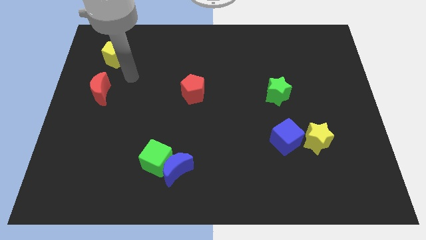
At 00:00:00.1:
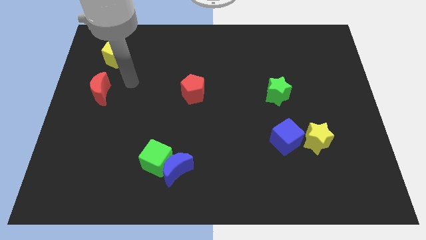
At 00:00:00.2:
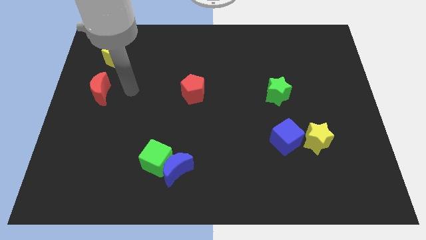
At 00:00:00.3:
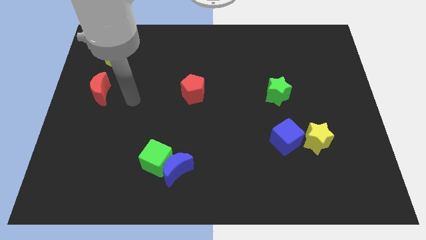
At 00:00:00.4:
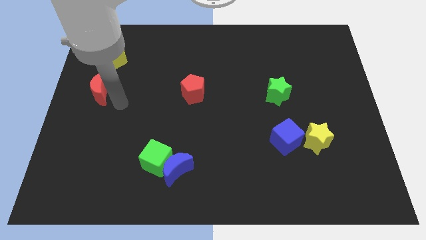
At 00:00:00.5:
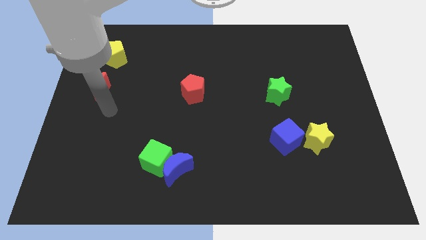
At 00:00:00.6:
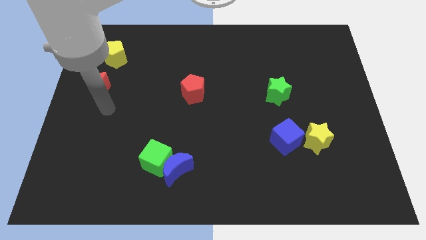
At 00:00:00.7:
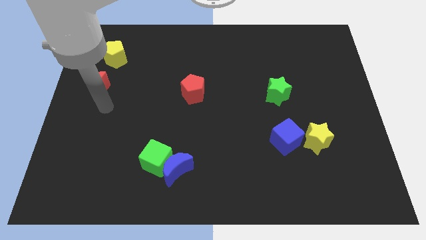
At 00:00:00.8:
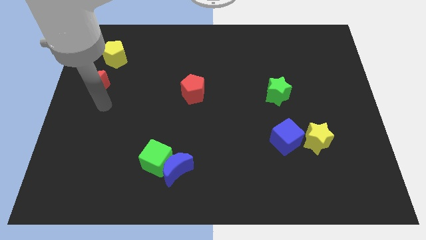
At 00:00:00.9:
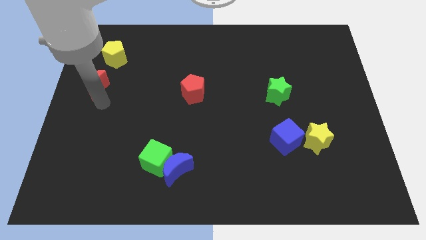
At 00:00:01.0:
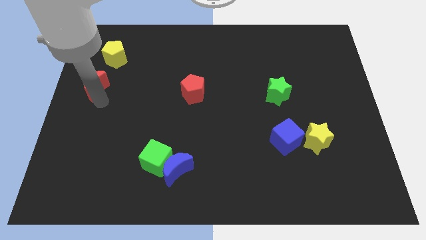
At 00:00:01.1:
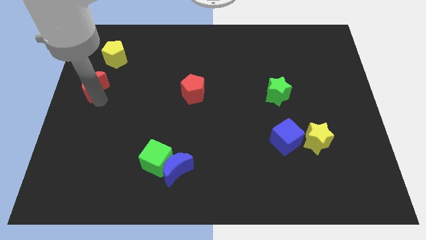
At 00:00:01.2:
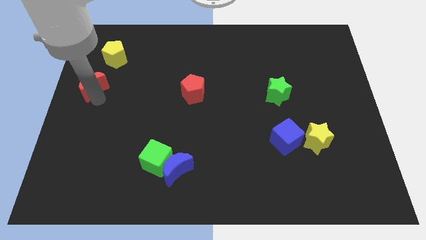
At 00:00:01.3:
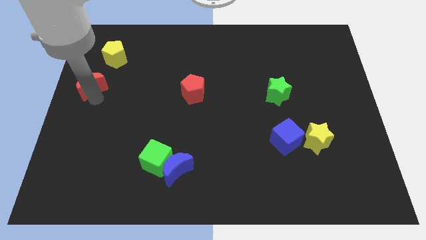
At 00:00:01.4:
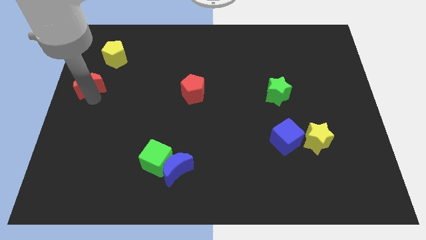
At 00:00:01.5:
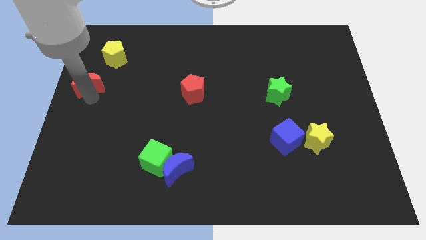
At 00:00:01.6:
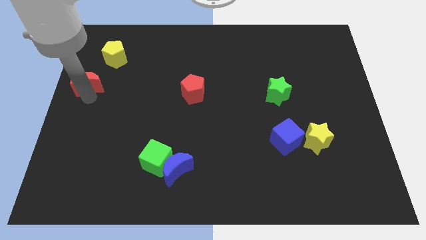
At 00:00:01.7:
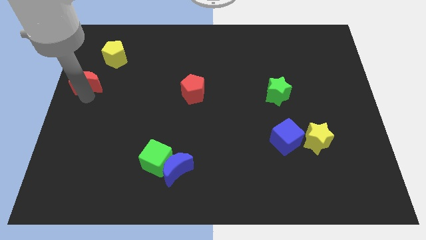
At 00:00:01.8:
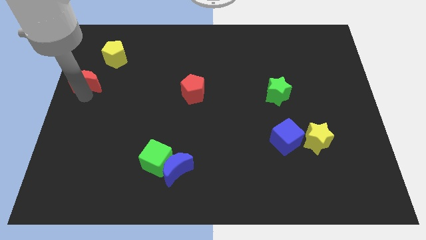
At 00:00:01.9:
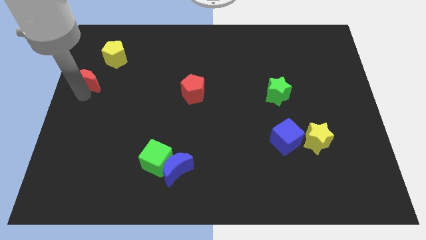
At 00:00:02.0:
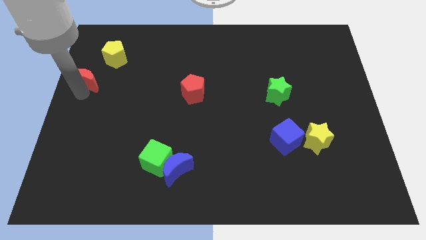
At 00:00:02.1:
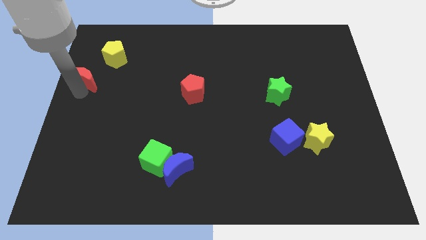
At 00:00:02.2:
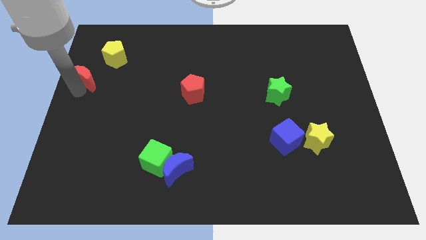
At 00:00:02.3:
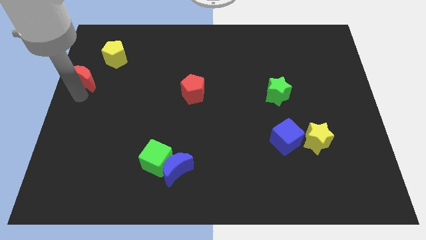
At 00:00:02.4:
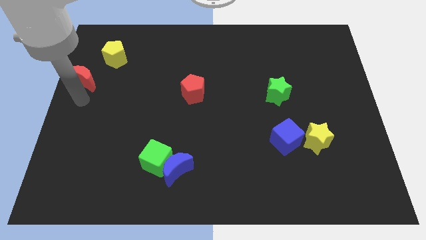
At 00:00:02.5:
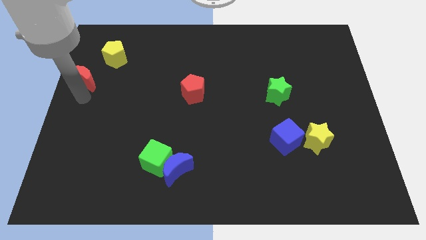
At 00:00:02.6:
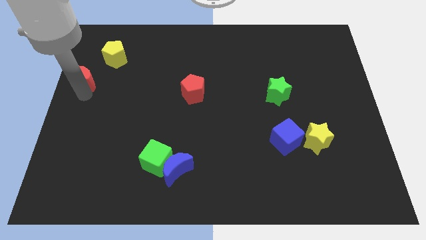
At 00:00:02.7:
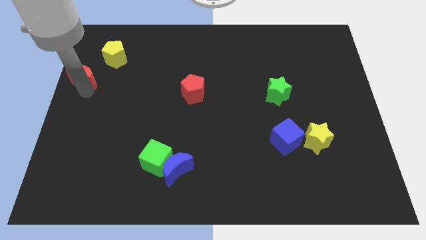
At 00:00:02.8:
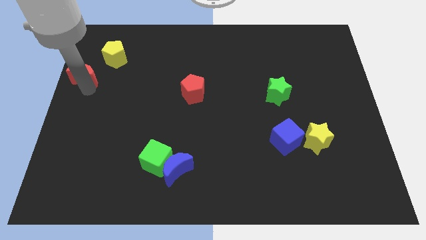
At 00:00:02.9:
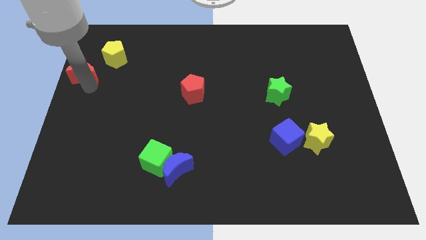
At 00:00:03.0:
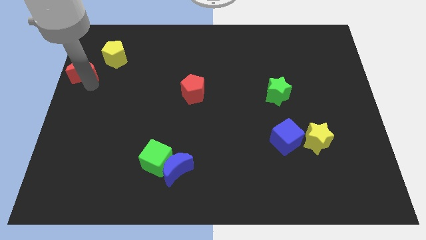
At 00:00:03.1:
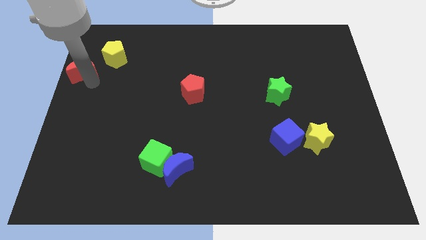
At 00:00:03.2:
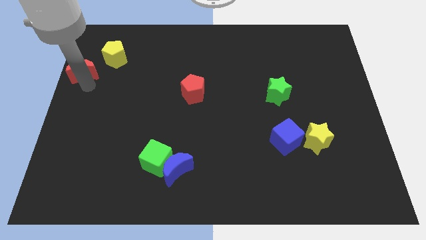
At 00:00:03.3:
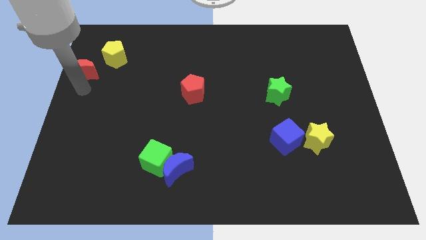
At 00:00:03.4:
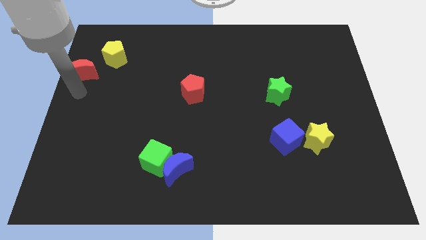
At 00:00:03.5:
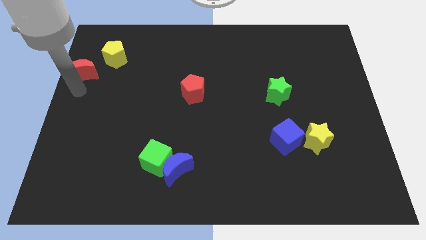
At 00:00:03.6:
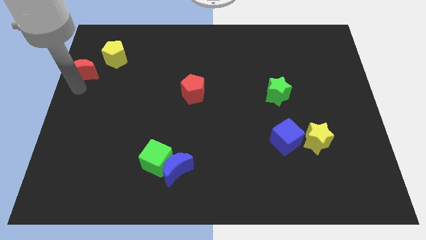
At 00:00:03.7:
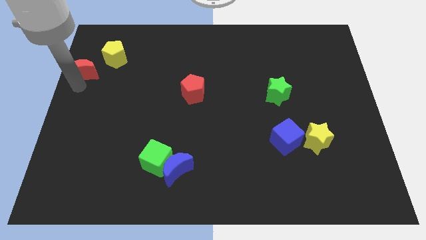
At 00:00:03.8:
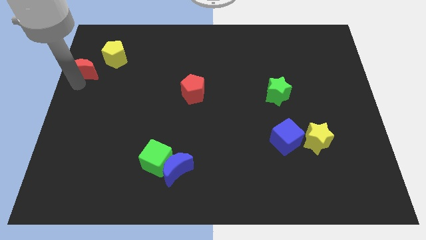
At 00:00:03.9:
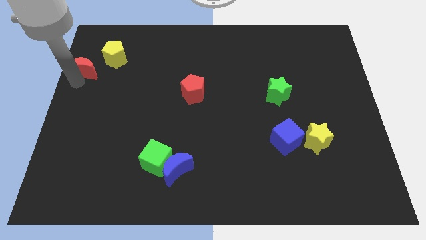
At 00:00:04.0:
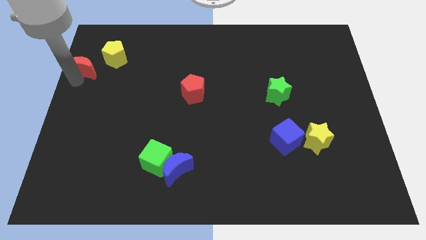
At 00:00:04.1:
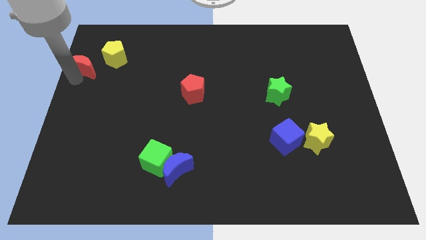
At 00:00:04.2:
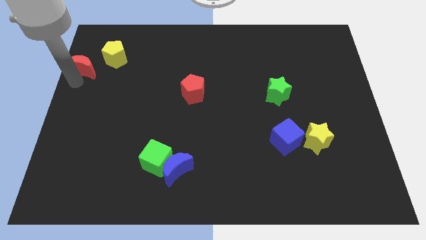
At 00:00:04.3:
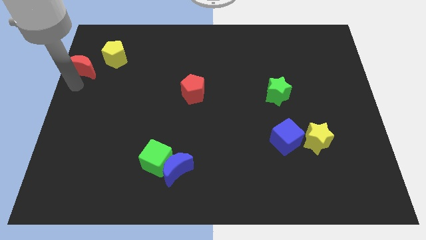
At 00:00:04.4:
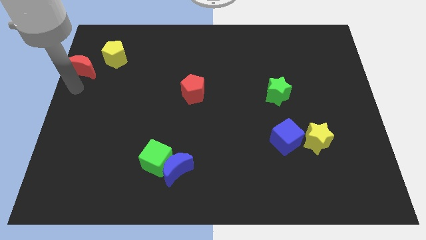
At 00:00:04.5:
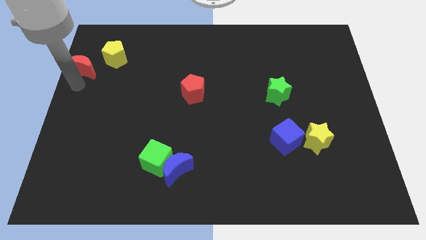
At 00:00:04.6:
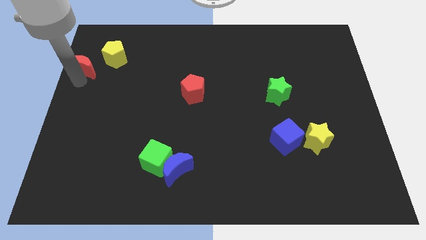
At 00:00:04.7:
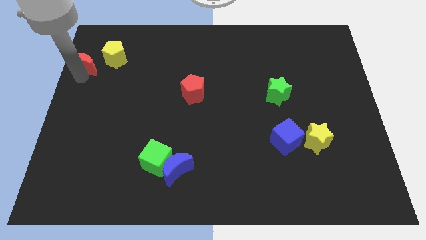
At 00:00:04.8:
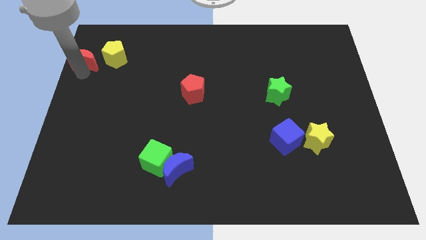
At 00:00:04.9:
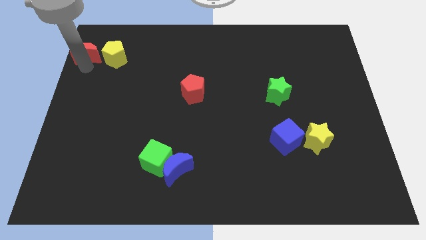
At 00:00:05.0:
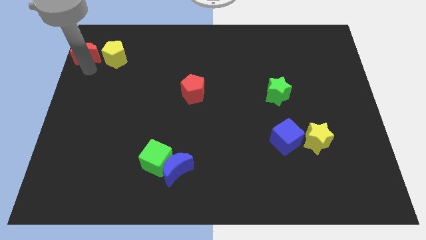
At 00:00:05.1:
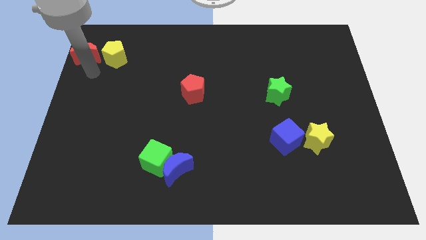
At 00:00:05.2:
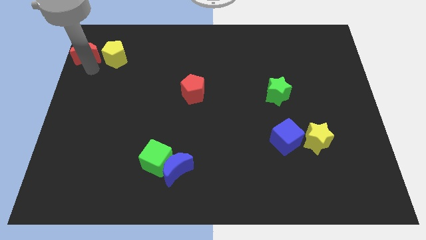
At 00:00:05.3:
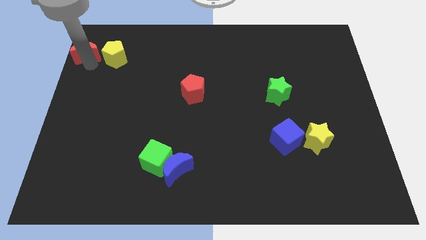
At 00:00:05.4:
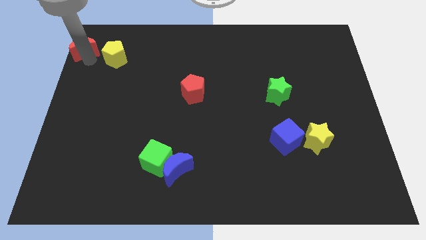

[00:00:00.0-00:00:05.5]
slide the red moon to the upper left corner
